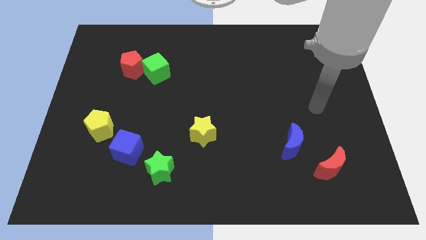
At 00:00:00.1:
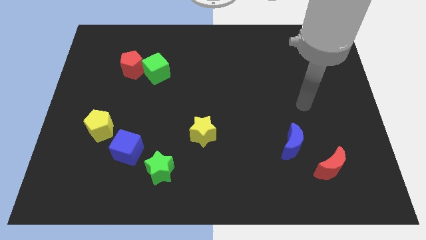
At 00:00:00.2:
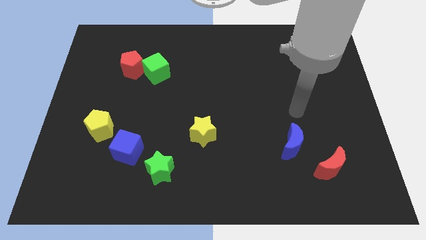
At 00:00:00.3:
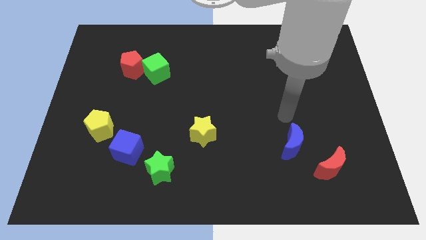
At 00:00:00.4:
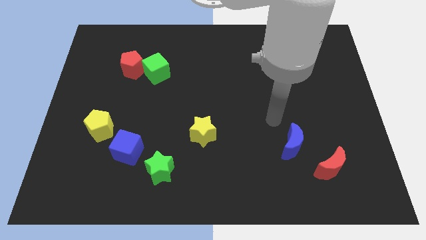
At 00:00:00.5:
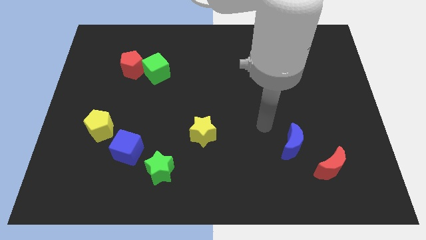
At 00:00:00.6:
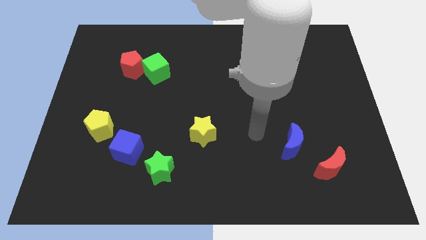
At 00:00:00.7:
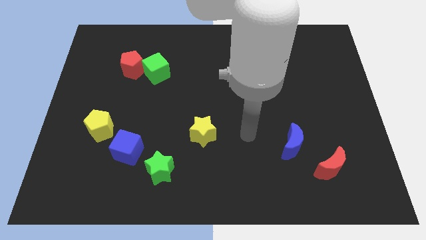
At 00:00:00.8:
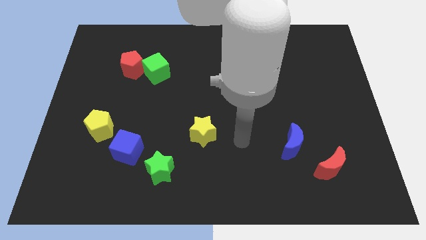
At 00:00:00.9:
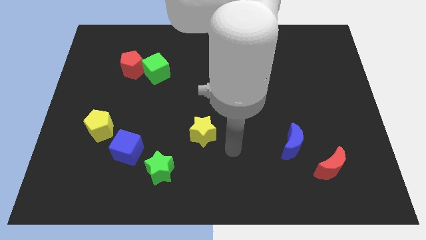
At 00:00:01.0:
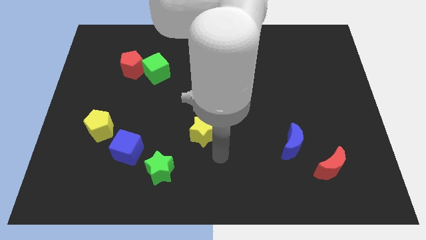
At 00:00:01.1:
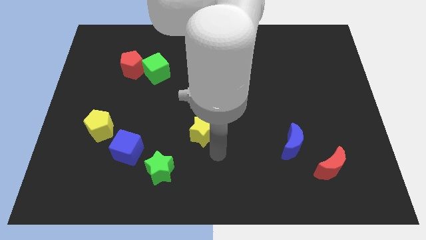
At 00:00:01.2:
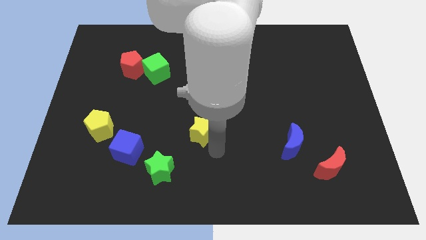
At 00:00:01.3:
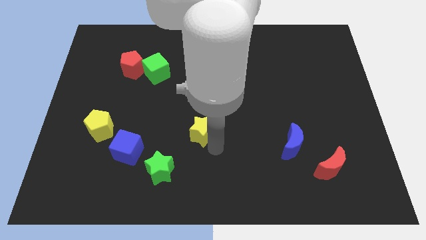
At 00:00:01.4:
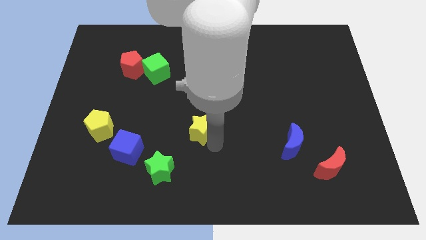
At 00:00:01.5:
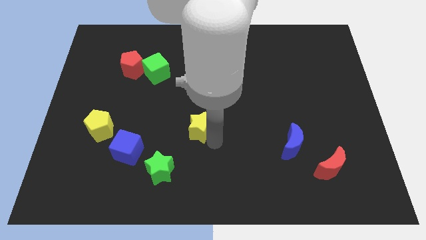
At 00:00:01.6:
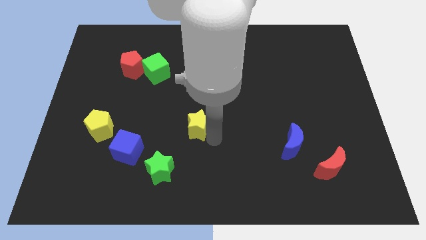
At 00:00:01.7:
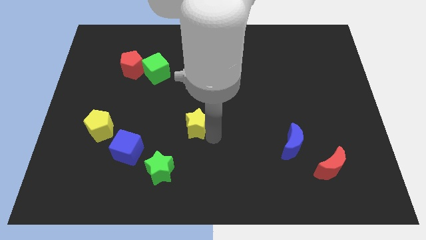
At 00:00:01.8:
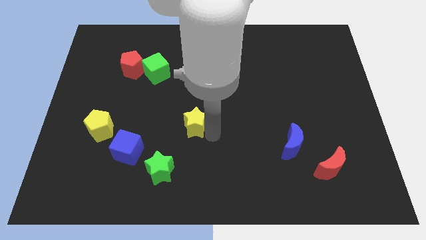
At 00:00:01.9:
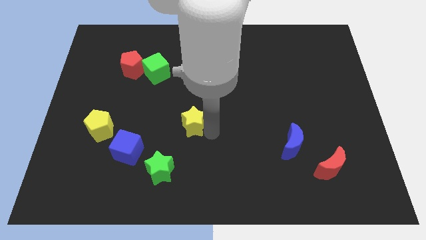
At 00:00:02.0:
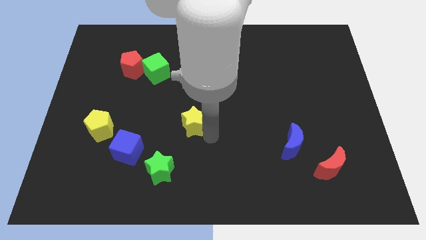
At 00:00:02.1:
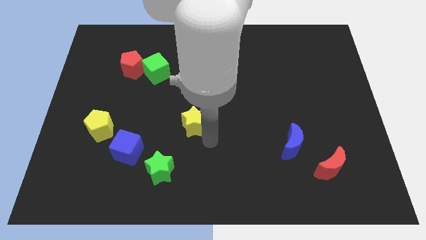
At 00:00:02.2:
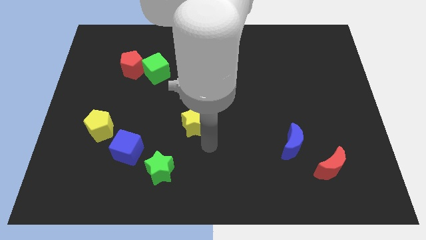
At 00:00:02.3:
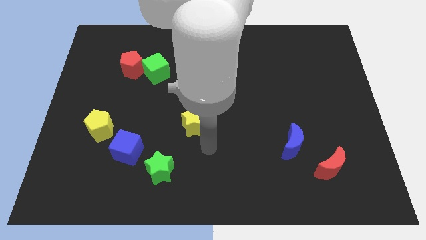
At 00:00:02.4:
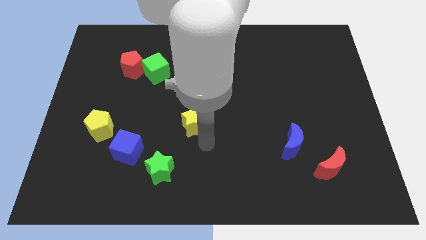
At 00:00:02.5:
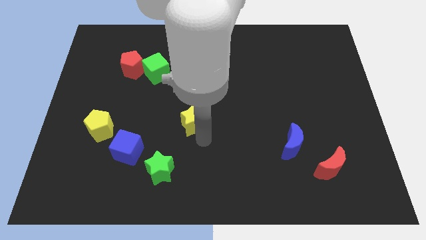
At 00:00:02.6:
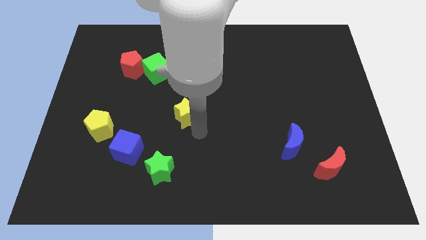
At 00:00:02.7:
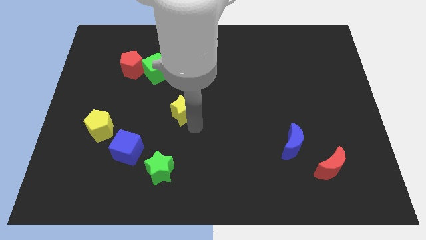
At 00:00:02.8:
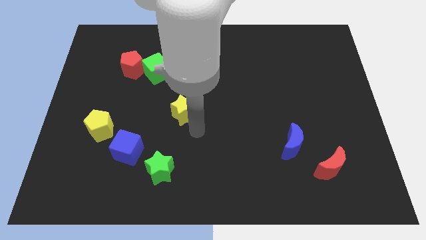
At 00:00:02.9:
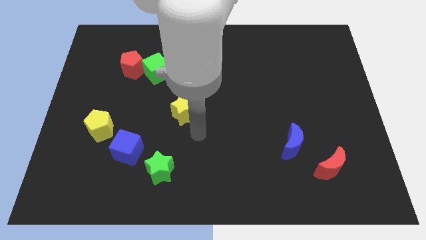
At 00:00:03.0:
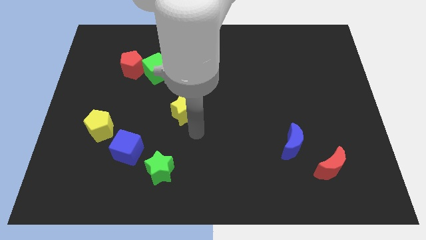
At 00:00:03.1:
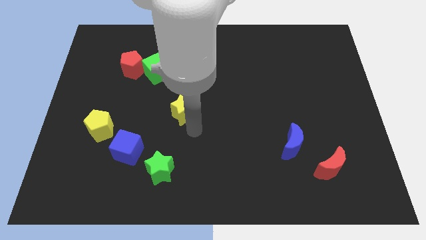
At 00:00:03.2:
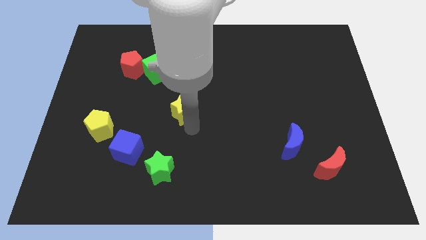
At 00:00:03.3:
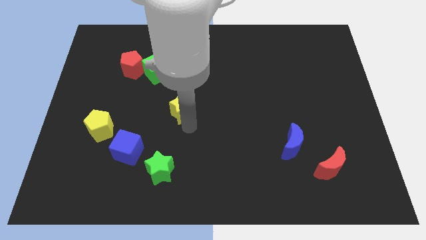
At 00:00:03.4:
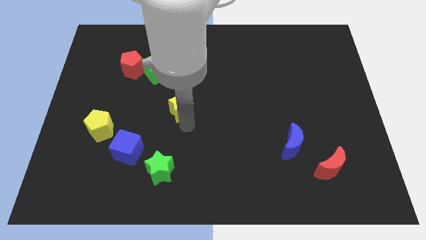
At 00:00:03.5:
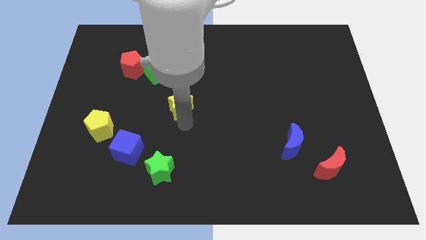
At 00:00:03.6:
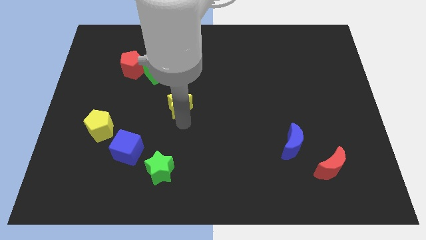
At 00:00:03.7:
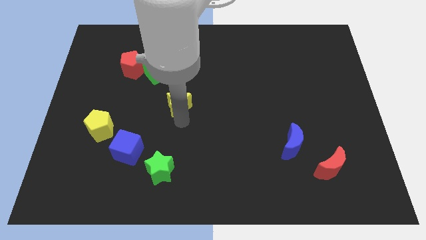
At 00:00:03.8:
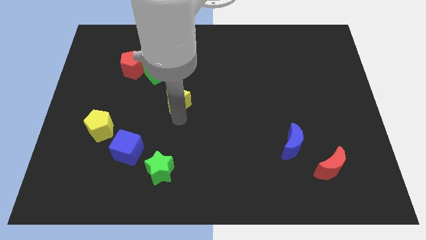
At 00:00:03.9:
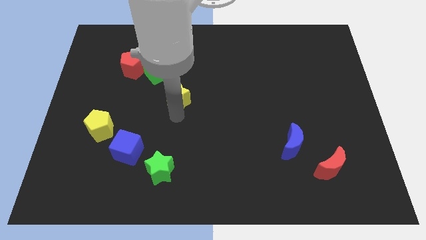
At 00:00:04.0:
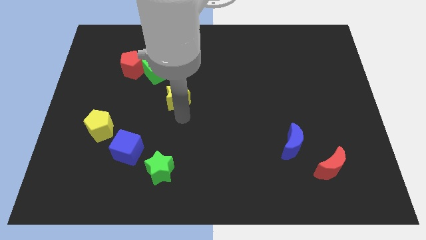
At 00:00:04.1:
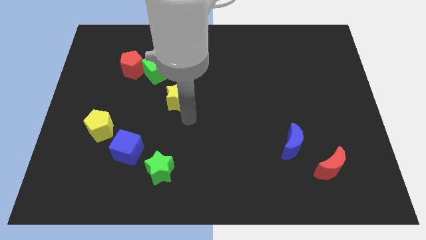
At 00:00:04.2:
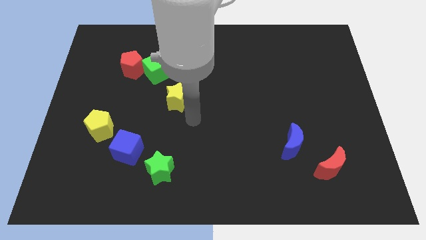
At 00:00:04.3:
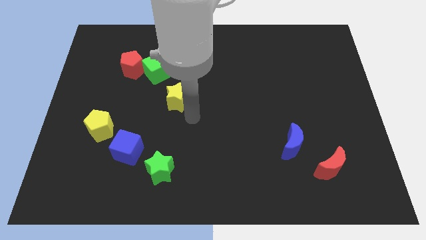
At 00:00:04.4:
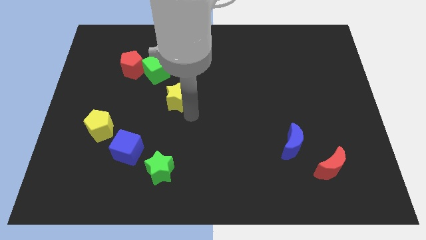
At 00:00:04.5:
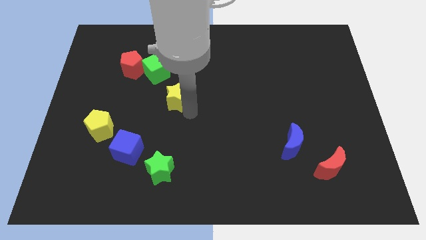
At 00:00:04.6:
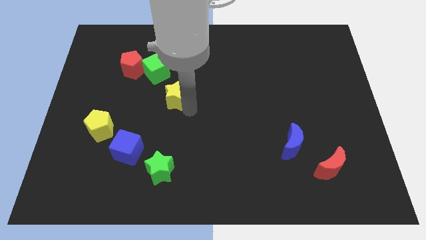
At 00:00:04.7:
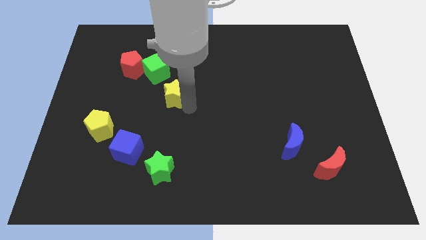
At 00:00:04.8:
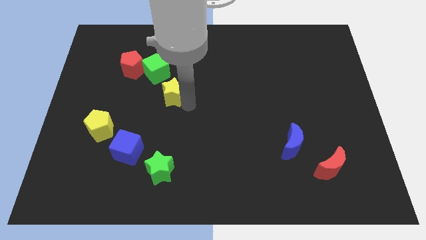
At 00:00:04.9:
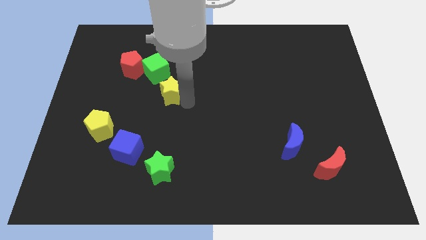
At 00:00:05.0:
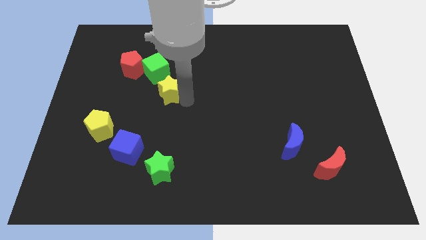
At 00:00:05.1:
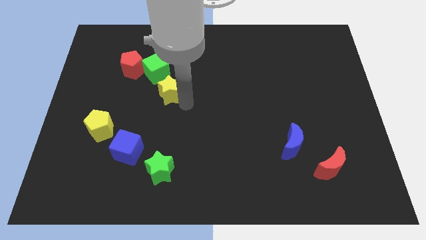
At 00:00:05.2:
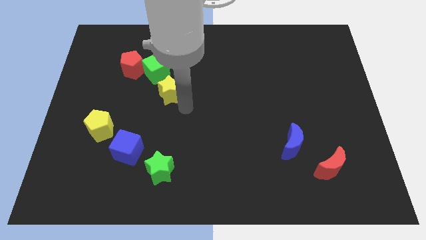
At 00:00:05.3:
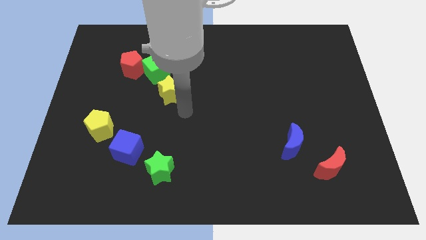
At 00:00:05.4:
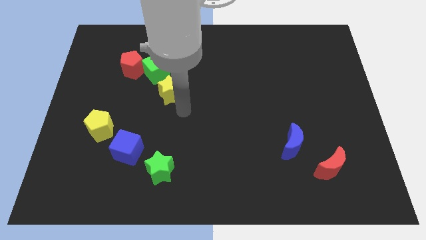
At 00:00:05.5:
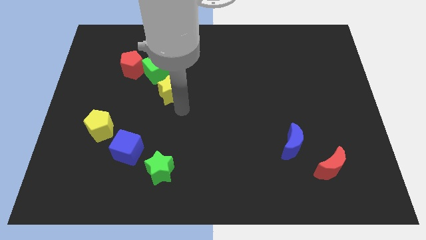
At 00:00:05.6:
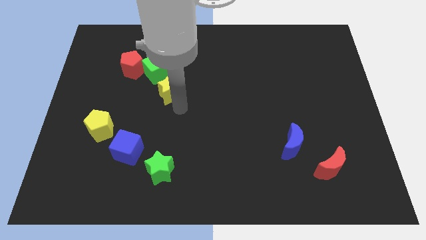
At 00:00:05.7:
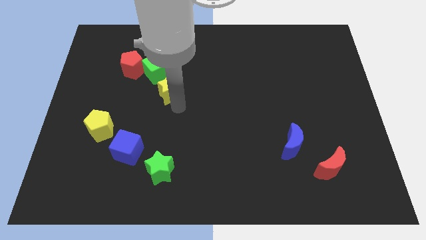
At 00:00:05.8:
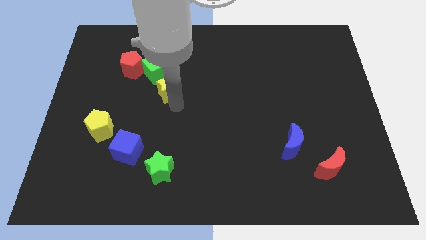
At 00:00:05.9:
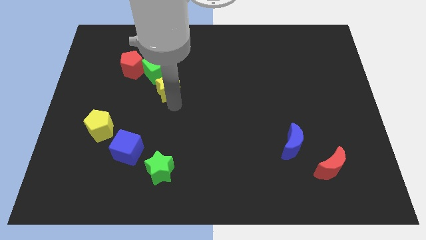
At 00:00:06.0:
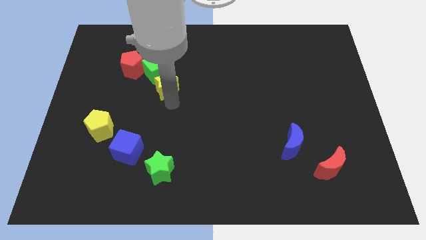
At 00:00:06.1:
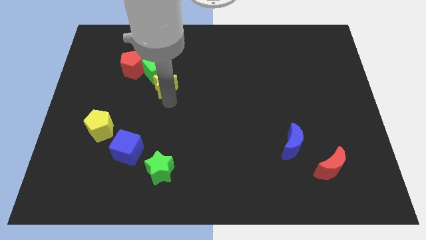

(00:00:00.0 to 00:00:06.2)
slide the yellow star next to the green cube

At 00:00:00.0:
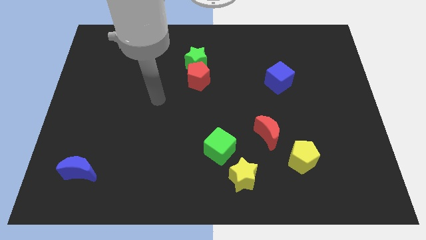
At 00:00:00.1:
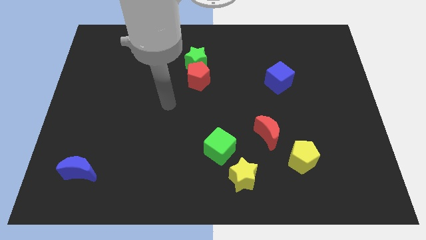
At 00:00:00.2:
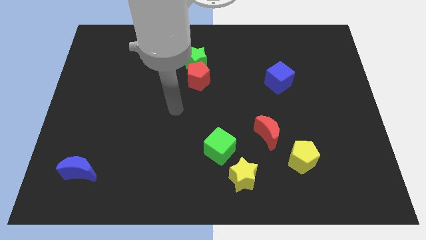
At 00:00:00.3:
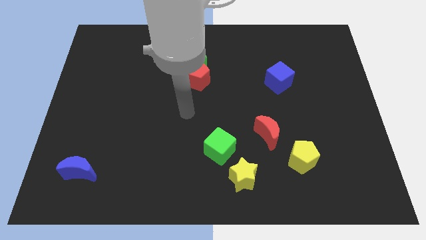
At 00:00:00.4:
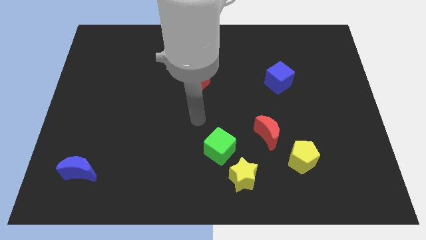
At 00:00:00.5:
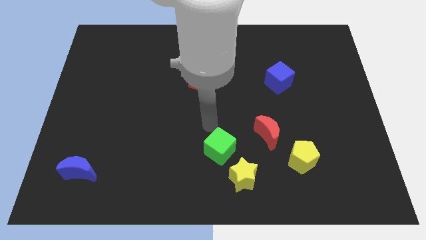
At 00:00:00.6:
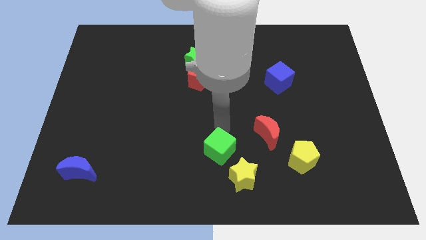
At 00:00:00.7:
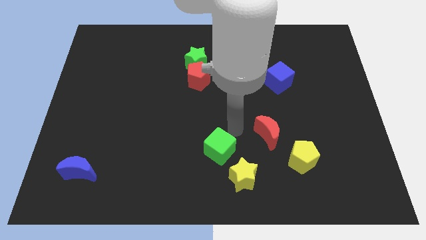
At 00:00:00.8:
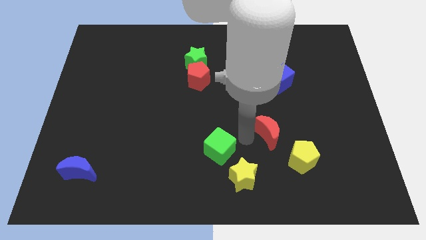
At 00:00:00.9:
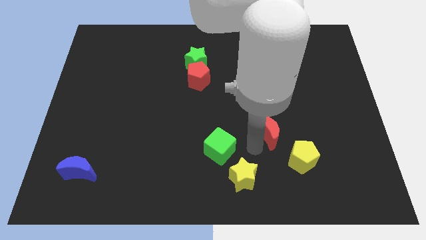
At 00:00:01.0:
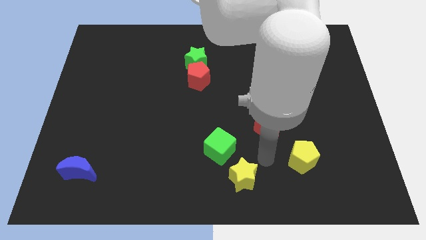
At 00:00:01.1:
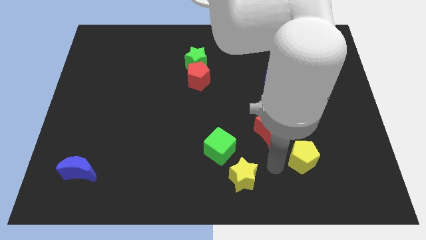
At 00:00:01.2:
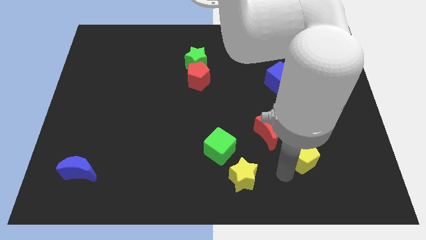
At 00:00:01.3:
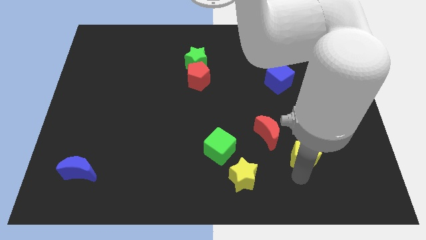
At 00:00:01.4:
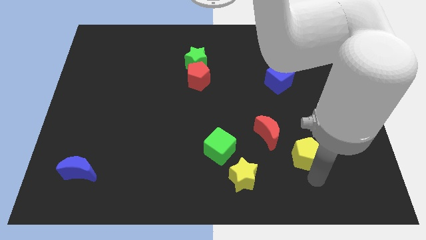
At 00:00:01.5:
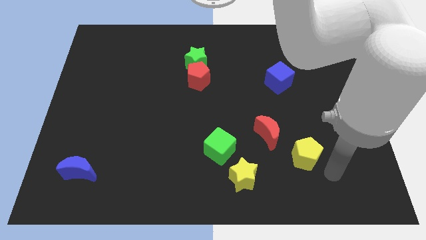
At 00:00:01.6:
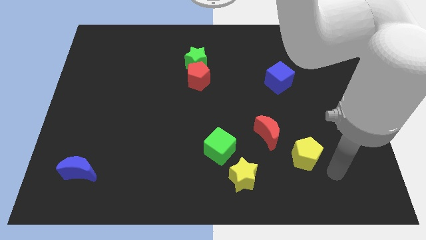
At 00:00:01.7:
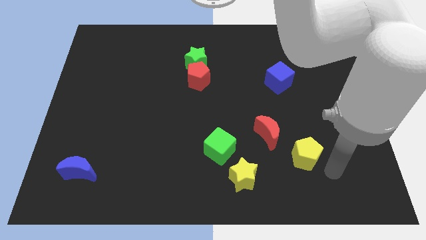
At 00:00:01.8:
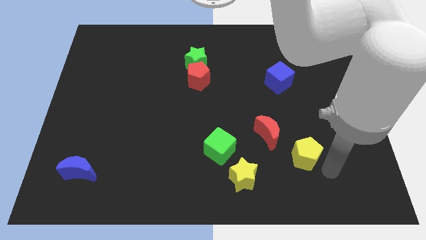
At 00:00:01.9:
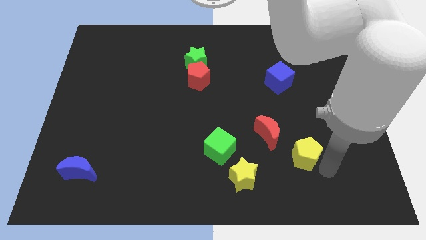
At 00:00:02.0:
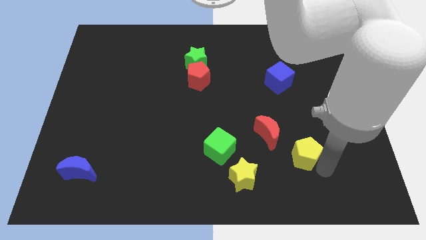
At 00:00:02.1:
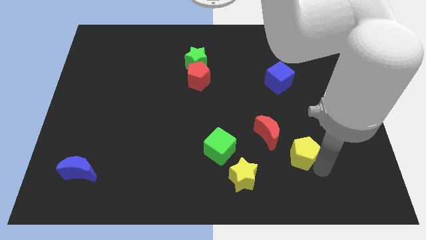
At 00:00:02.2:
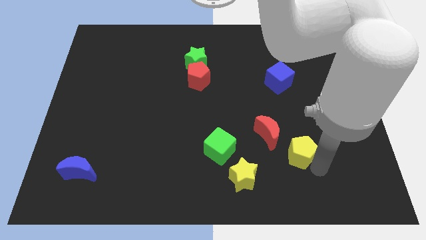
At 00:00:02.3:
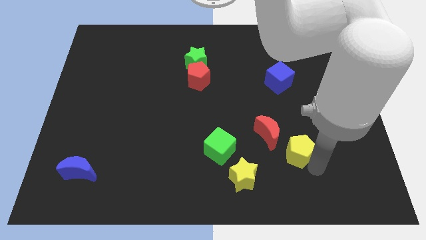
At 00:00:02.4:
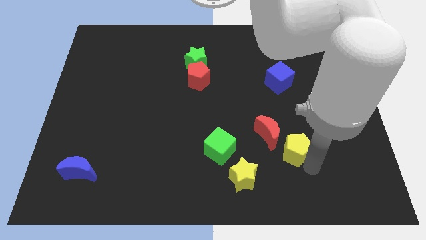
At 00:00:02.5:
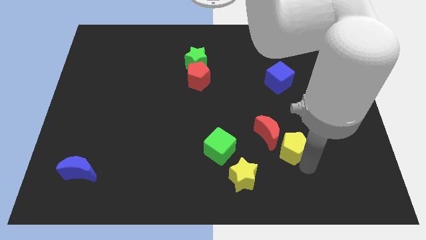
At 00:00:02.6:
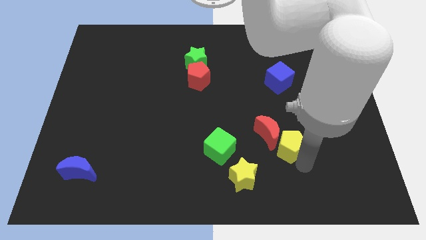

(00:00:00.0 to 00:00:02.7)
push the yellow pentagon close to the red moon
